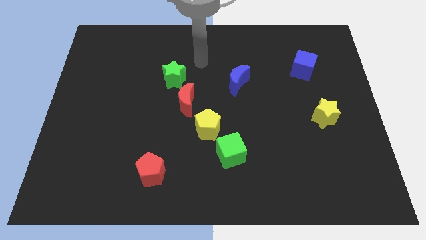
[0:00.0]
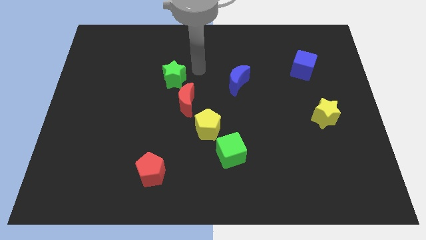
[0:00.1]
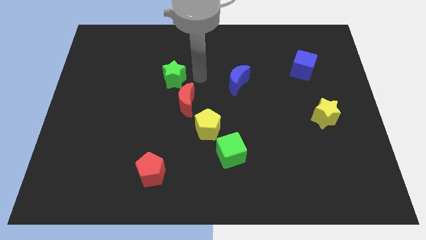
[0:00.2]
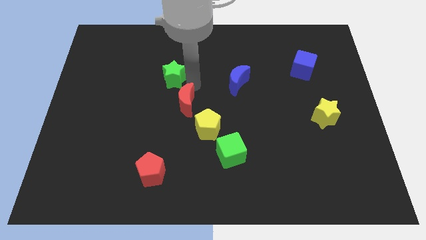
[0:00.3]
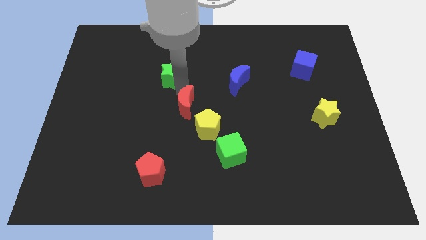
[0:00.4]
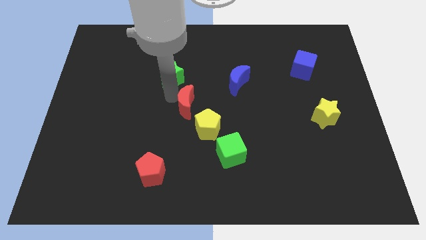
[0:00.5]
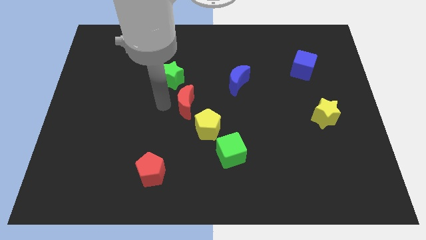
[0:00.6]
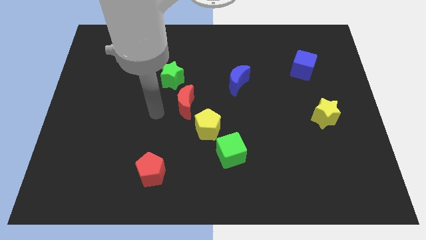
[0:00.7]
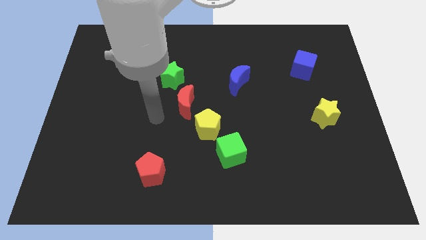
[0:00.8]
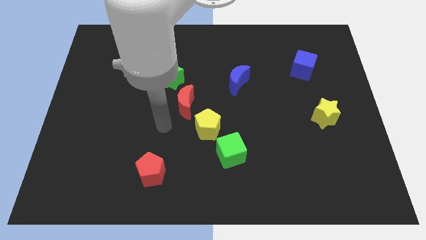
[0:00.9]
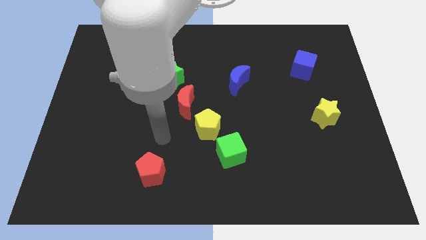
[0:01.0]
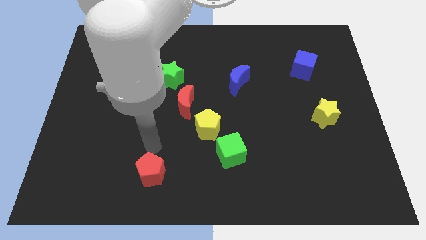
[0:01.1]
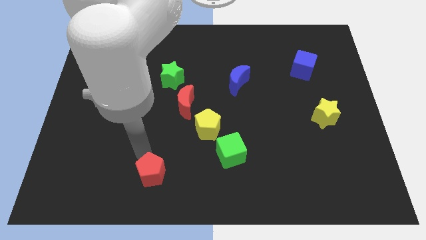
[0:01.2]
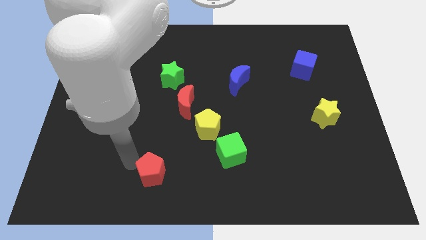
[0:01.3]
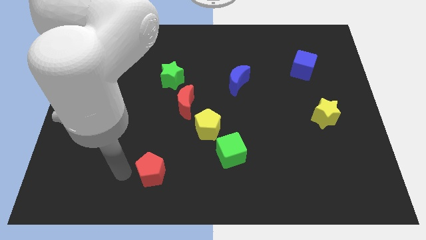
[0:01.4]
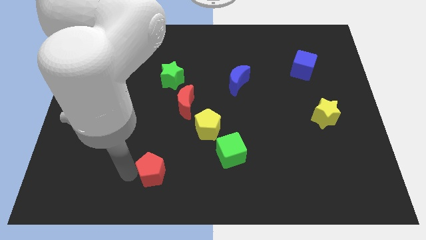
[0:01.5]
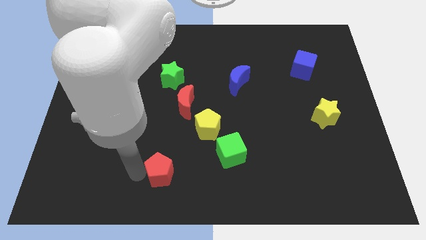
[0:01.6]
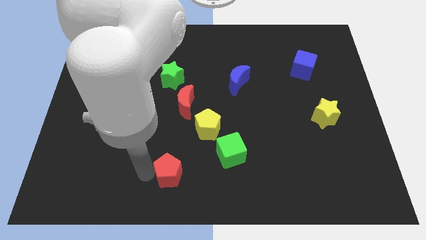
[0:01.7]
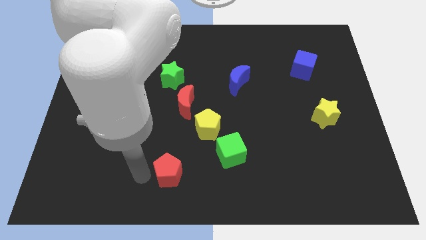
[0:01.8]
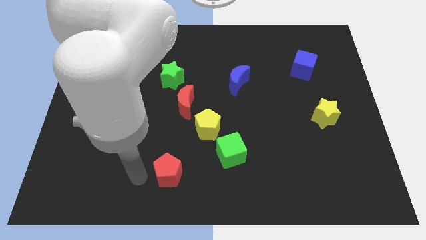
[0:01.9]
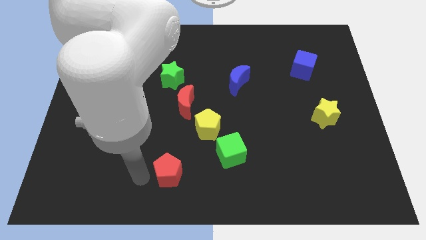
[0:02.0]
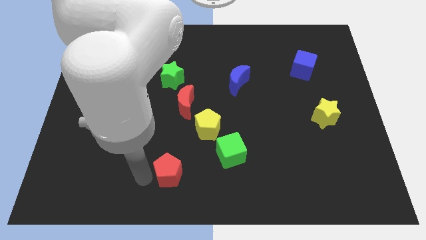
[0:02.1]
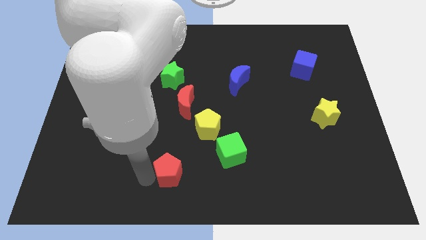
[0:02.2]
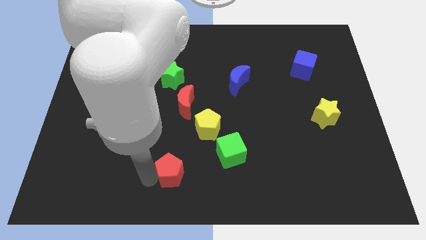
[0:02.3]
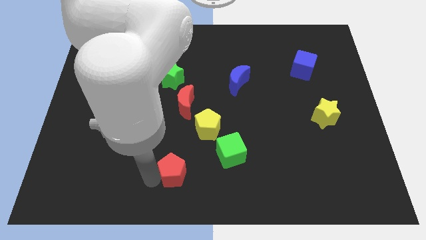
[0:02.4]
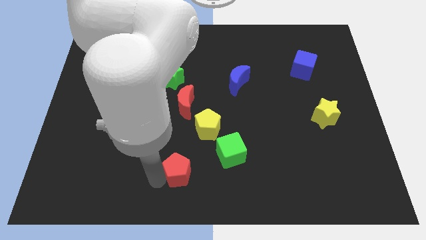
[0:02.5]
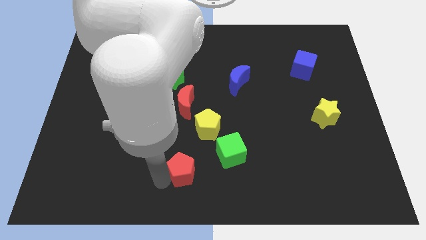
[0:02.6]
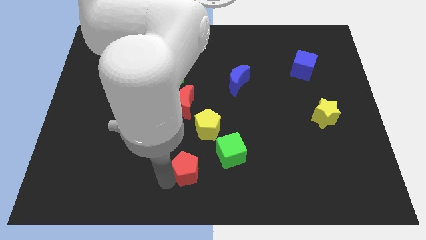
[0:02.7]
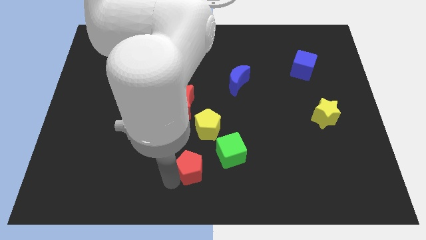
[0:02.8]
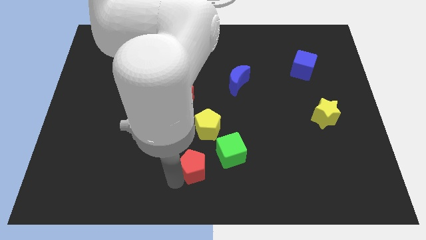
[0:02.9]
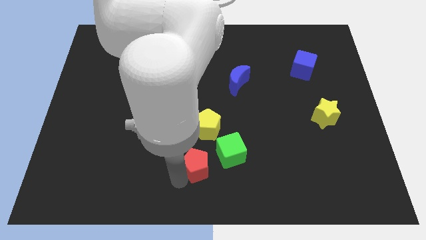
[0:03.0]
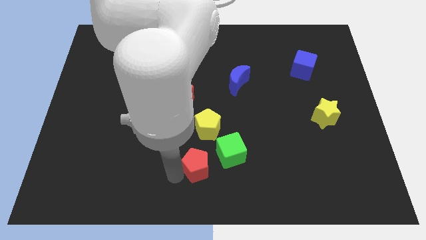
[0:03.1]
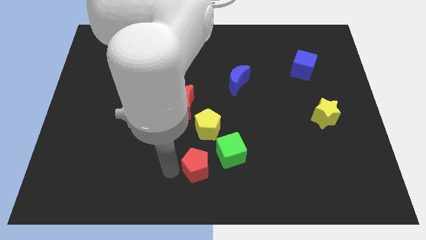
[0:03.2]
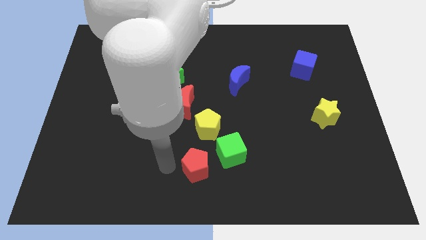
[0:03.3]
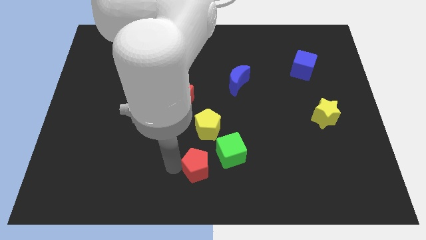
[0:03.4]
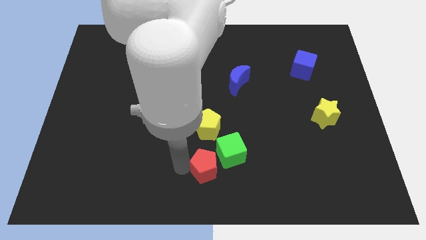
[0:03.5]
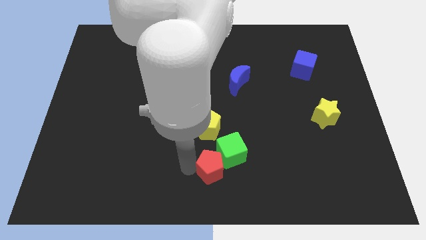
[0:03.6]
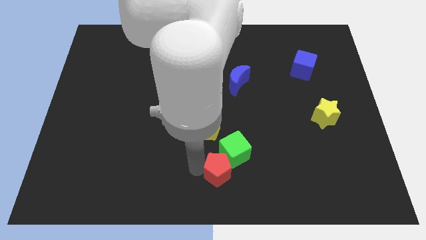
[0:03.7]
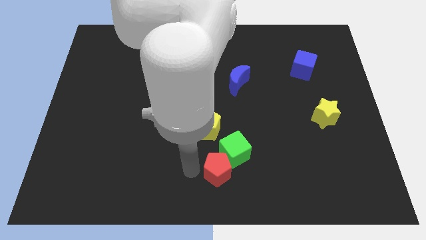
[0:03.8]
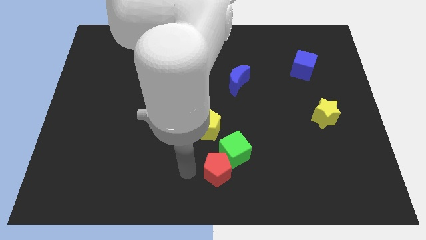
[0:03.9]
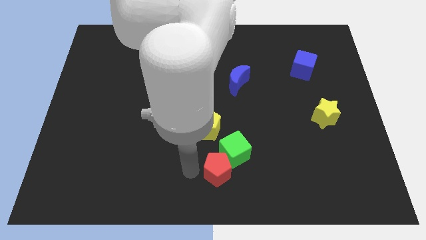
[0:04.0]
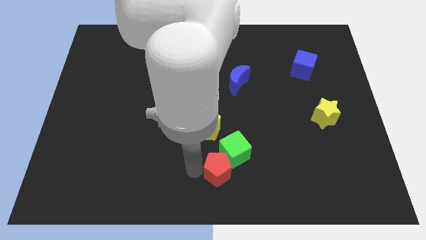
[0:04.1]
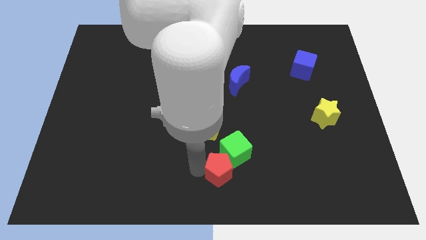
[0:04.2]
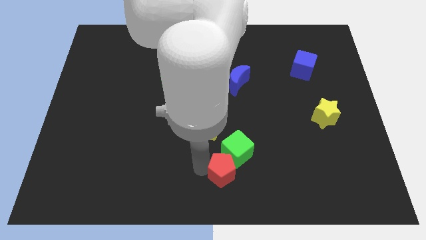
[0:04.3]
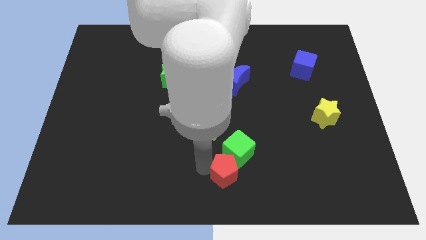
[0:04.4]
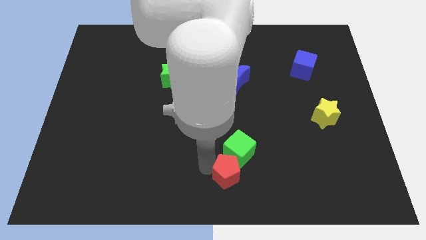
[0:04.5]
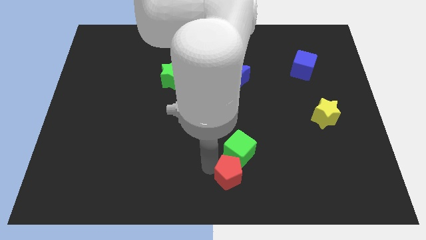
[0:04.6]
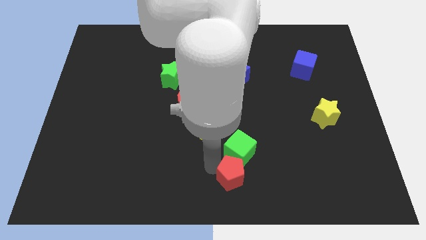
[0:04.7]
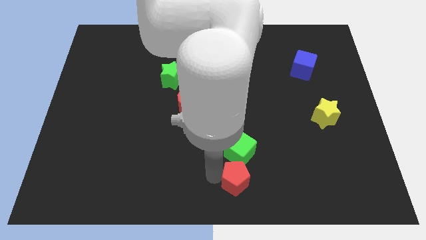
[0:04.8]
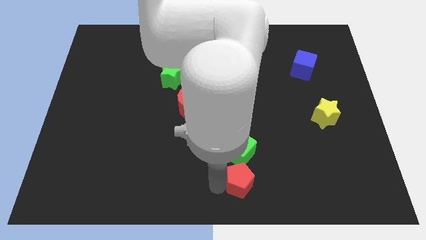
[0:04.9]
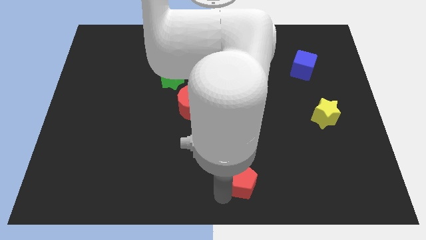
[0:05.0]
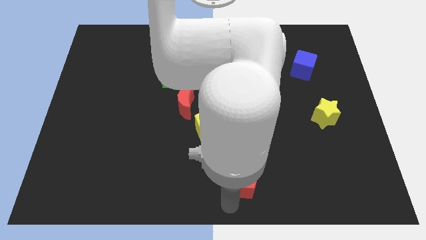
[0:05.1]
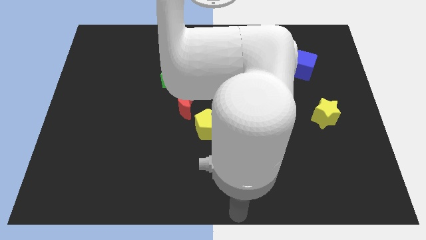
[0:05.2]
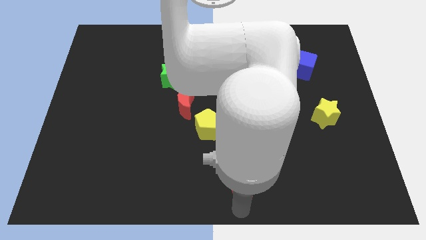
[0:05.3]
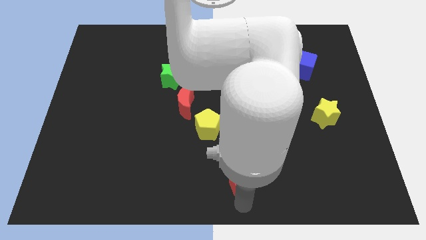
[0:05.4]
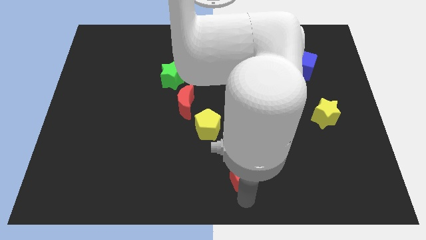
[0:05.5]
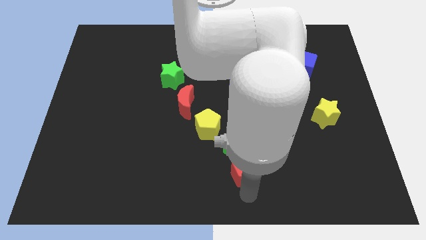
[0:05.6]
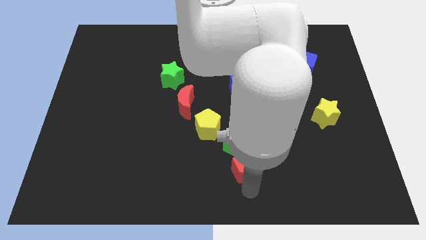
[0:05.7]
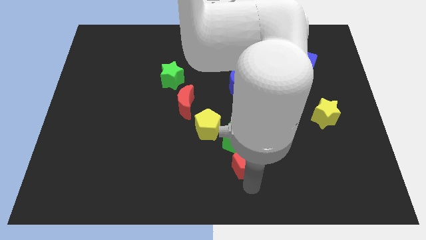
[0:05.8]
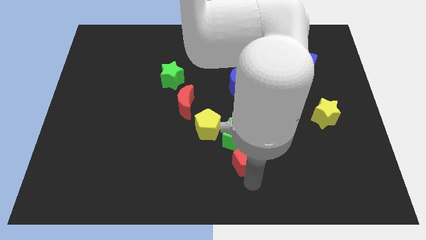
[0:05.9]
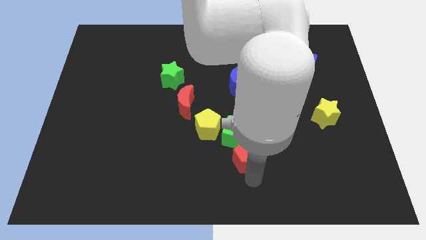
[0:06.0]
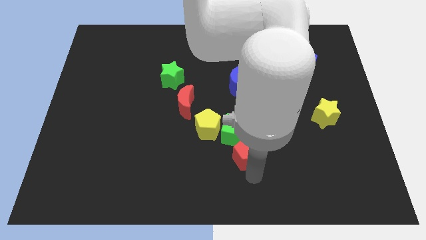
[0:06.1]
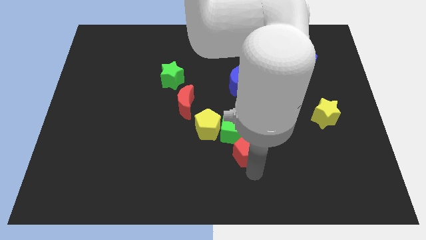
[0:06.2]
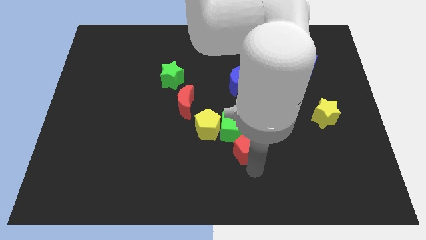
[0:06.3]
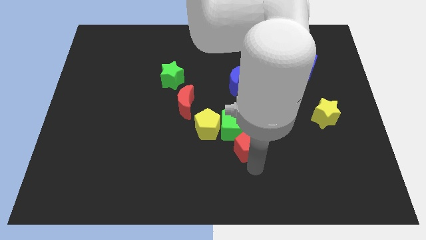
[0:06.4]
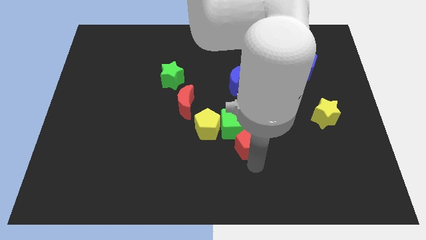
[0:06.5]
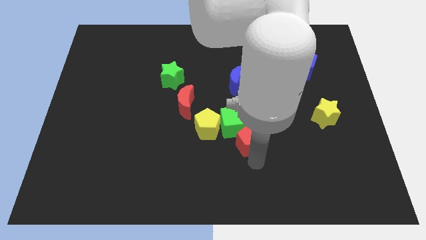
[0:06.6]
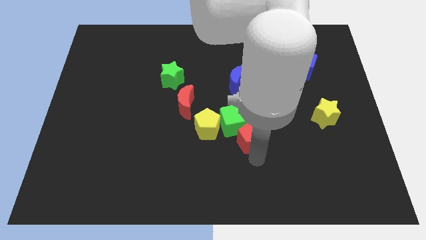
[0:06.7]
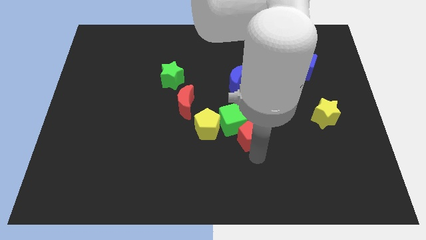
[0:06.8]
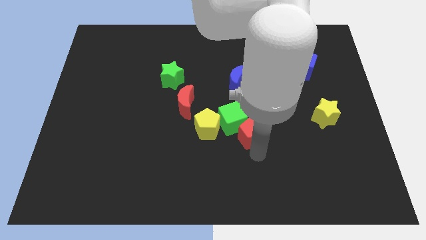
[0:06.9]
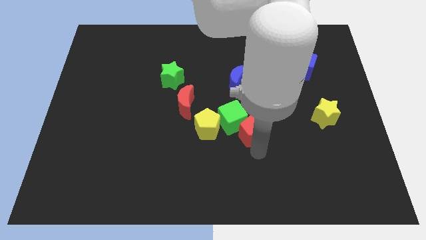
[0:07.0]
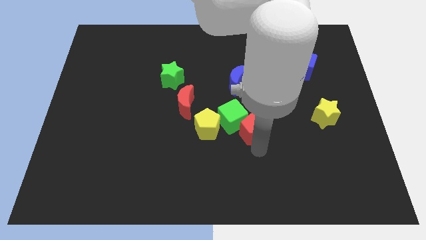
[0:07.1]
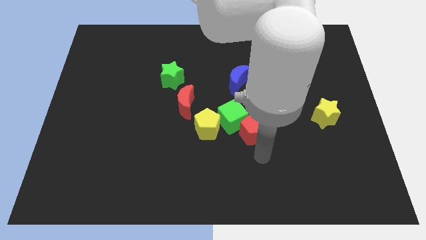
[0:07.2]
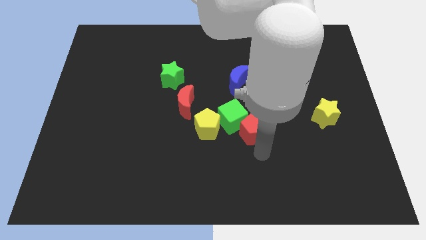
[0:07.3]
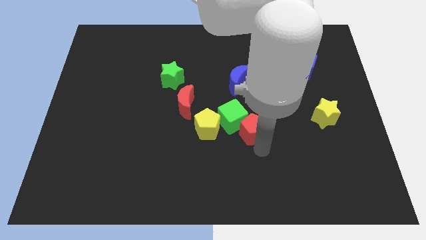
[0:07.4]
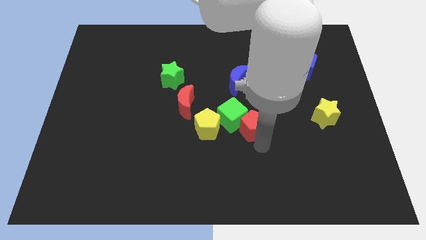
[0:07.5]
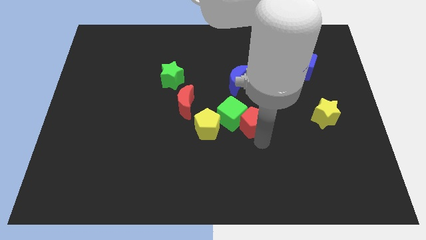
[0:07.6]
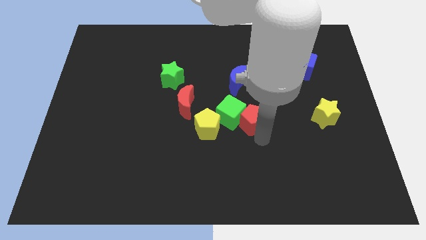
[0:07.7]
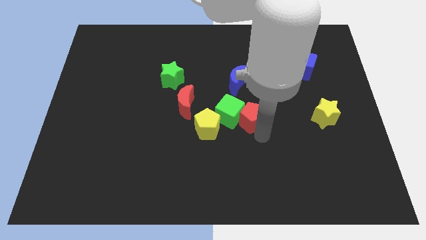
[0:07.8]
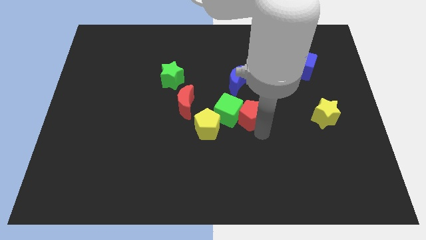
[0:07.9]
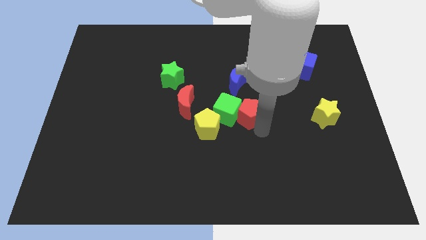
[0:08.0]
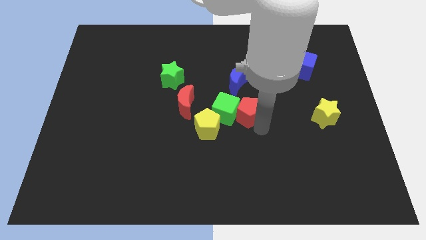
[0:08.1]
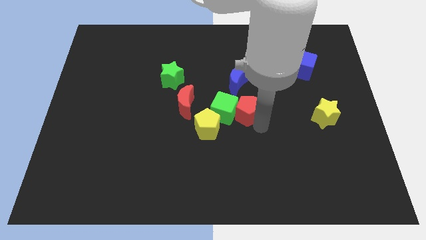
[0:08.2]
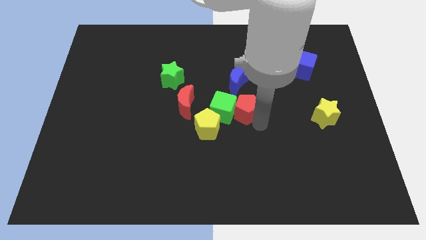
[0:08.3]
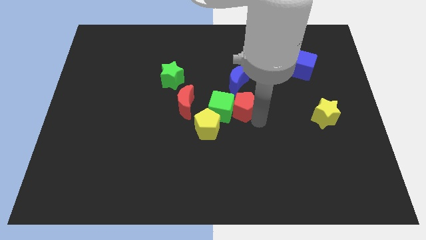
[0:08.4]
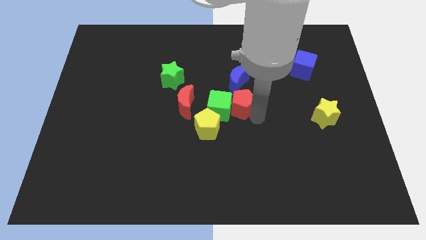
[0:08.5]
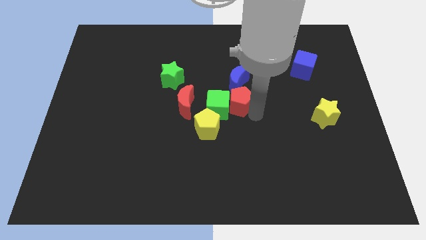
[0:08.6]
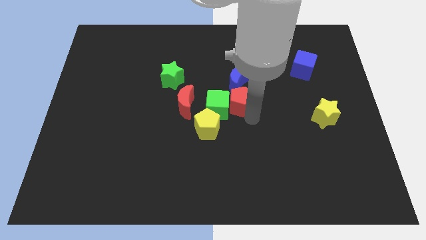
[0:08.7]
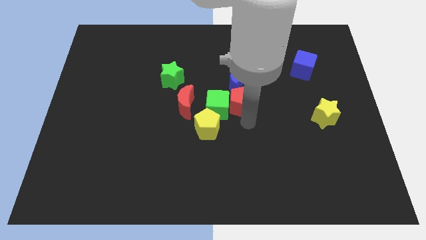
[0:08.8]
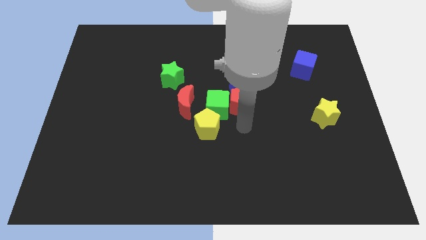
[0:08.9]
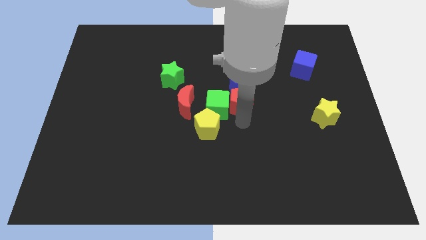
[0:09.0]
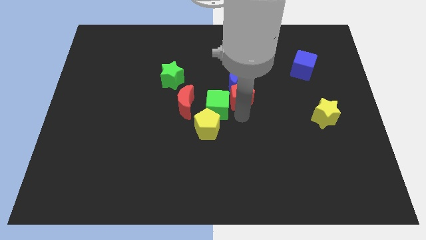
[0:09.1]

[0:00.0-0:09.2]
put the red pentagon to the blue moon
